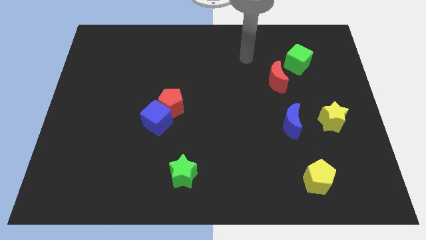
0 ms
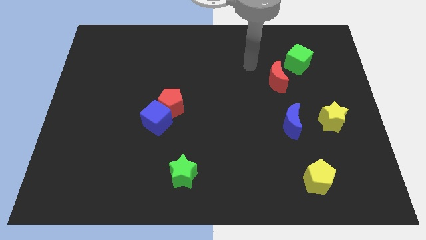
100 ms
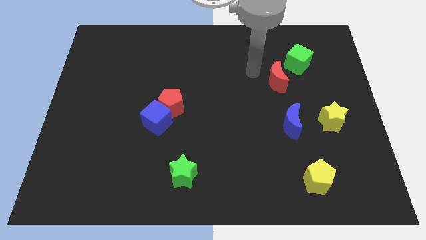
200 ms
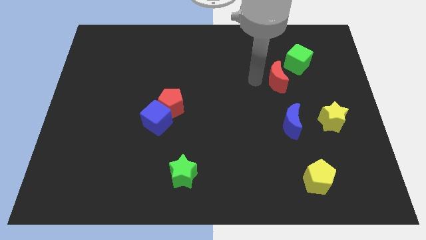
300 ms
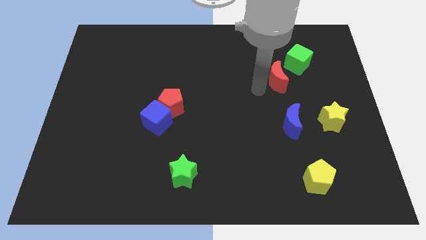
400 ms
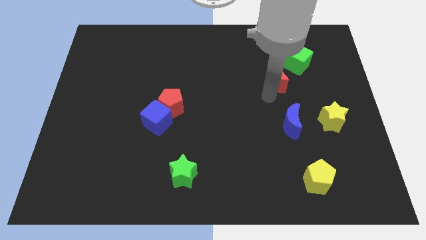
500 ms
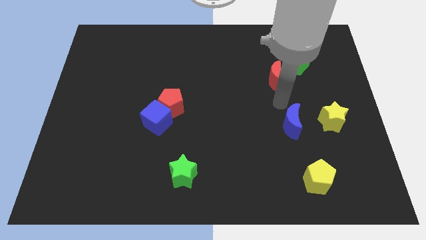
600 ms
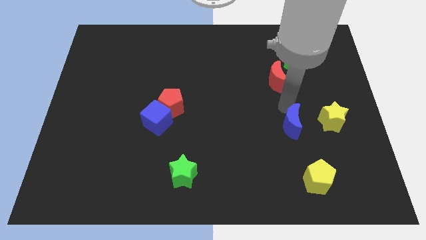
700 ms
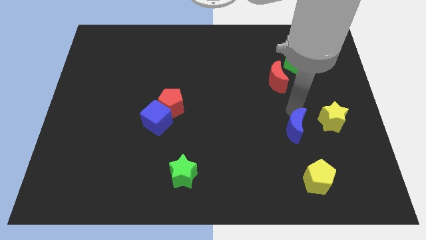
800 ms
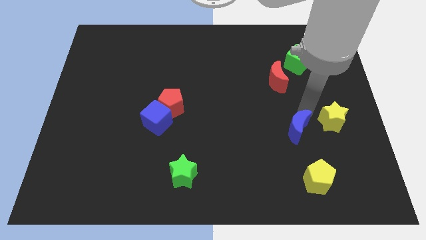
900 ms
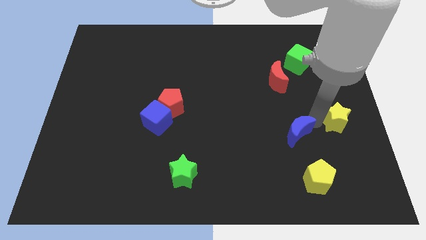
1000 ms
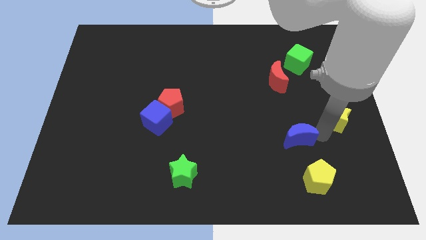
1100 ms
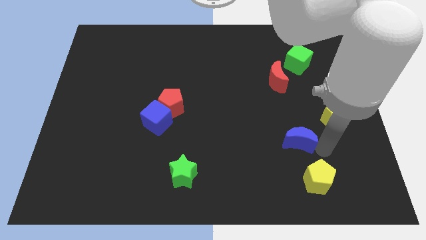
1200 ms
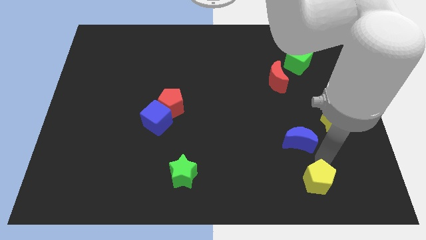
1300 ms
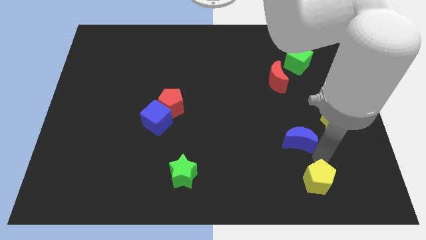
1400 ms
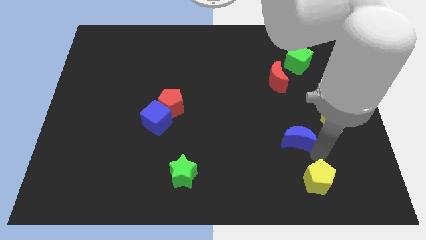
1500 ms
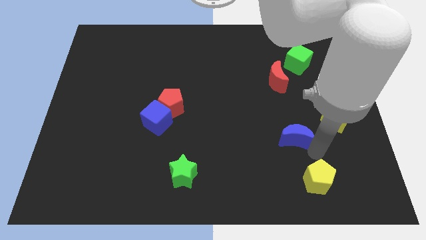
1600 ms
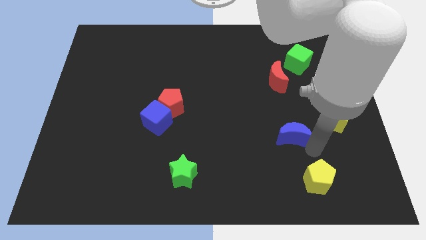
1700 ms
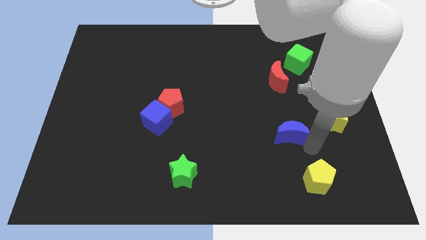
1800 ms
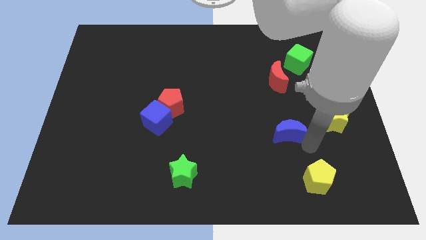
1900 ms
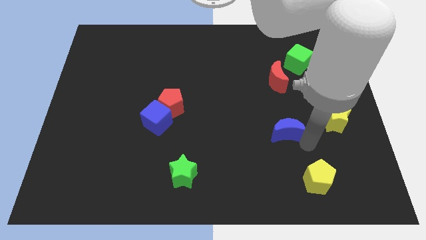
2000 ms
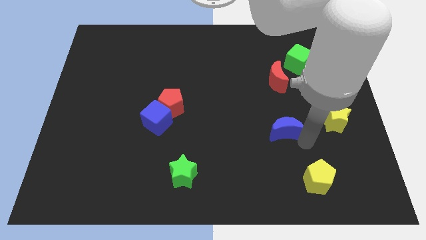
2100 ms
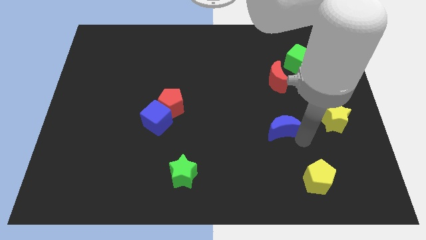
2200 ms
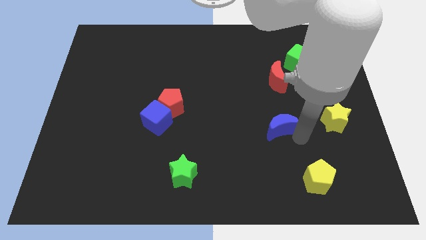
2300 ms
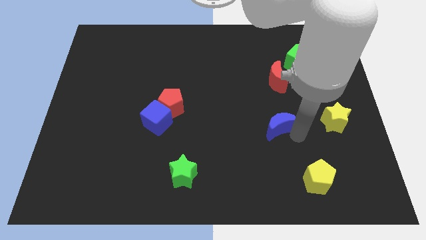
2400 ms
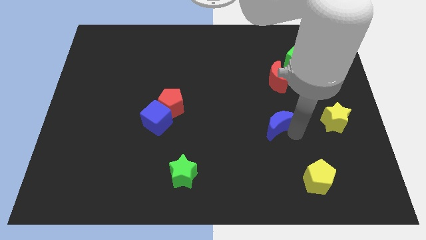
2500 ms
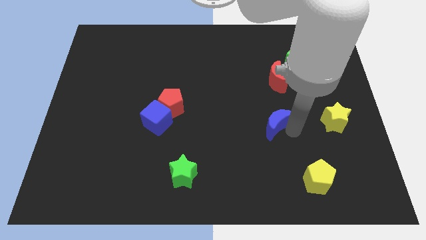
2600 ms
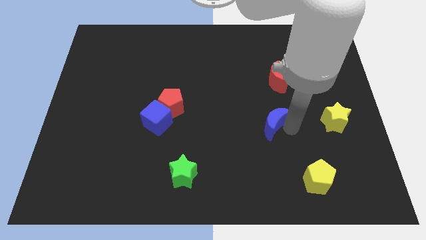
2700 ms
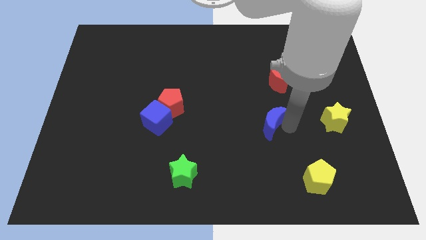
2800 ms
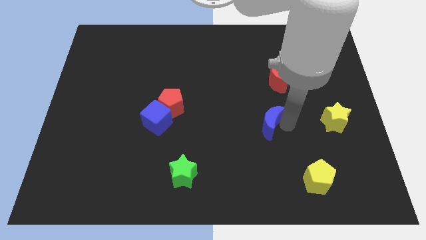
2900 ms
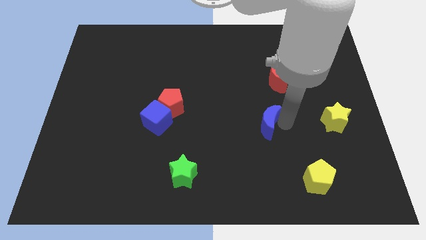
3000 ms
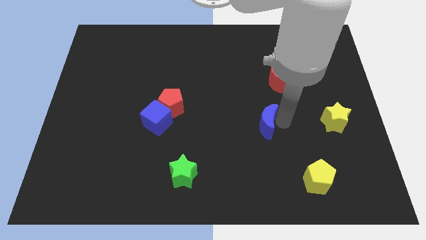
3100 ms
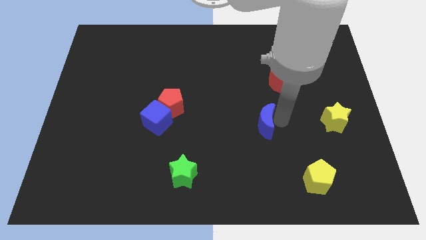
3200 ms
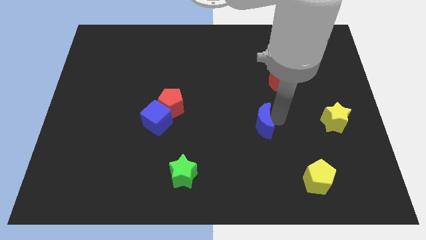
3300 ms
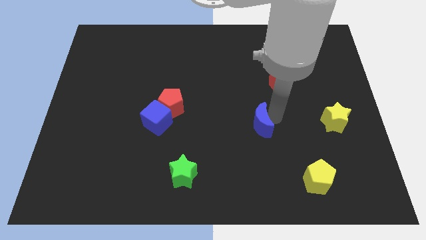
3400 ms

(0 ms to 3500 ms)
slide the blue moon somewhat left

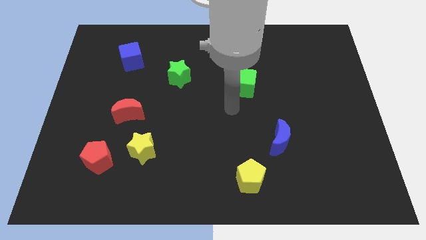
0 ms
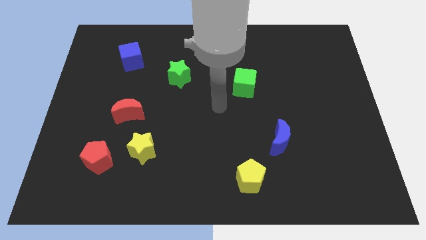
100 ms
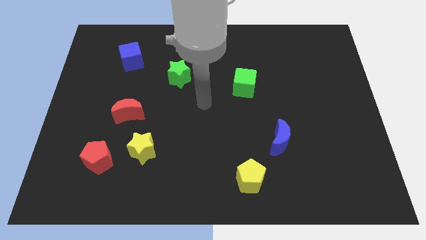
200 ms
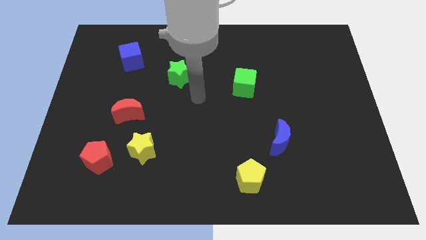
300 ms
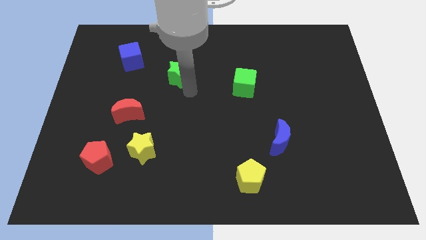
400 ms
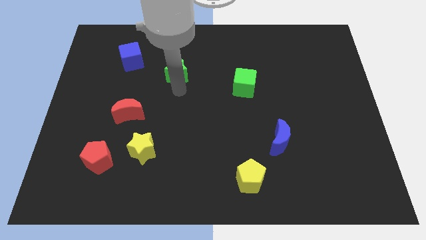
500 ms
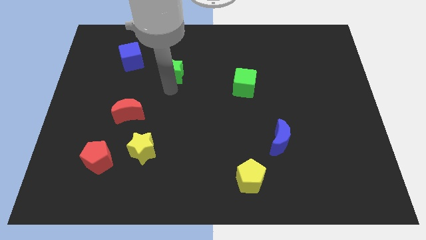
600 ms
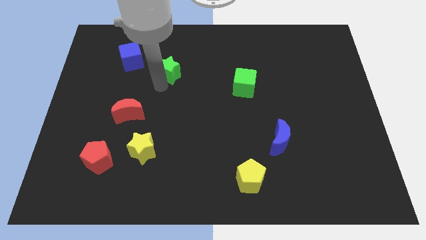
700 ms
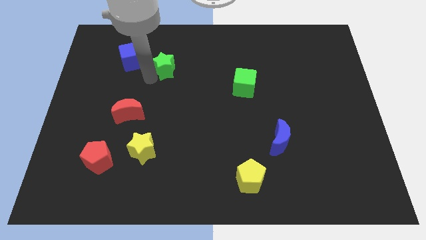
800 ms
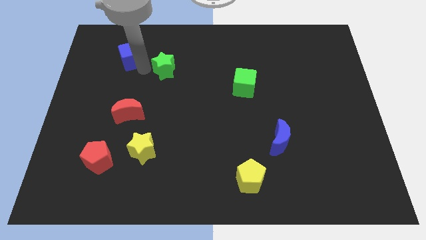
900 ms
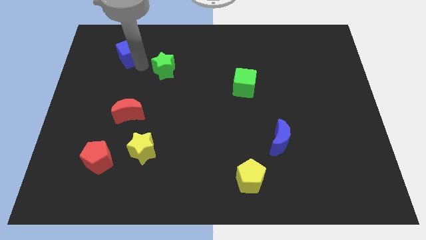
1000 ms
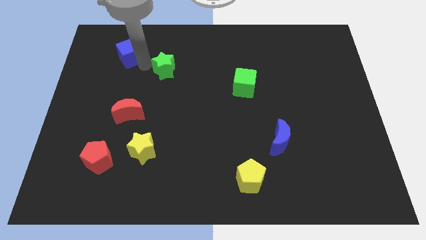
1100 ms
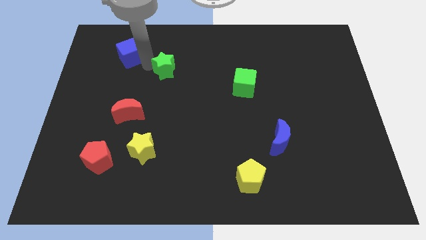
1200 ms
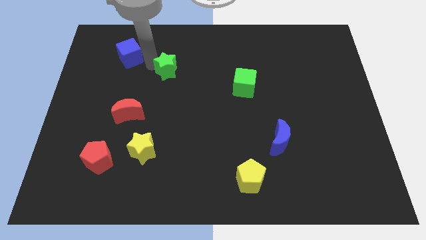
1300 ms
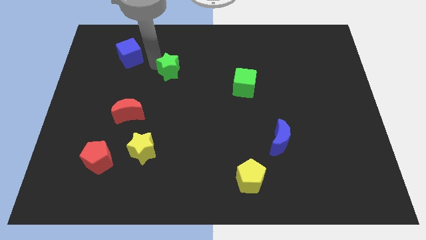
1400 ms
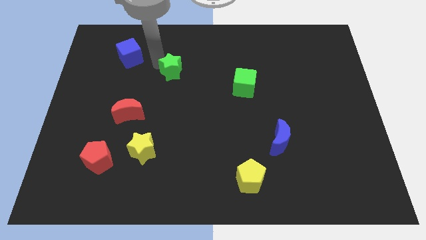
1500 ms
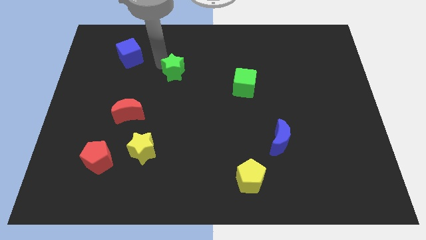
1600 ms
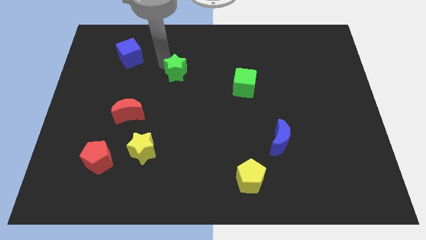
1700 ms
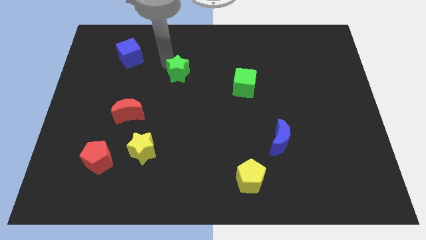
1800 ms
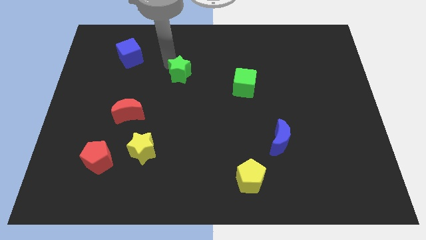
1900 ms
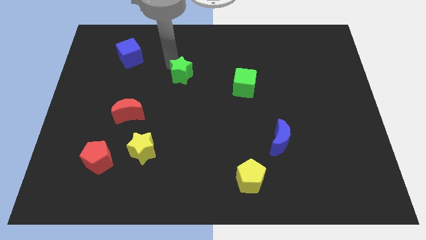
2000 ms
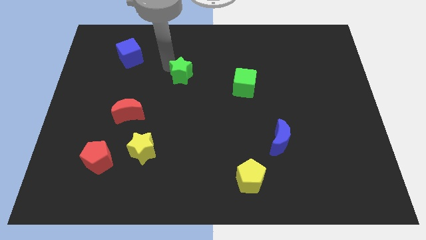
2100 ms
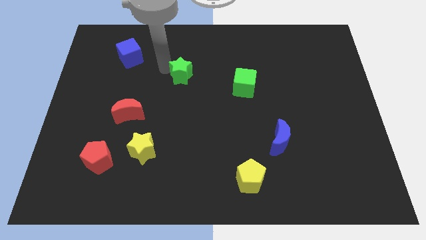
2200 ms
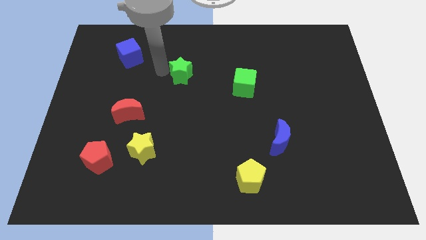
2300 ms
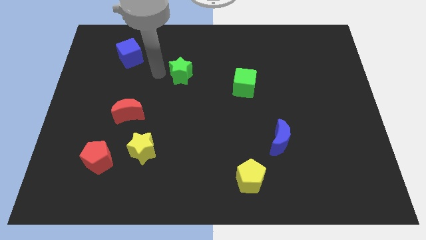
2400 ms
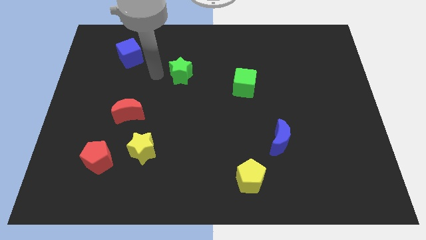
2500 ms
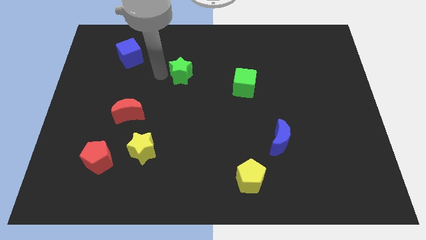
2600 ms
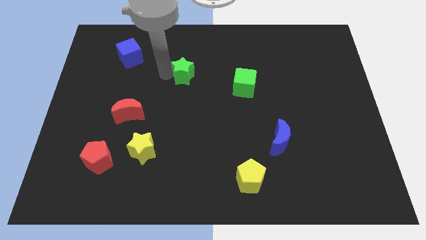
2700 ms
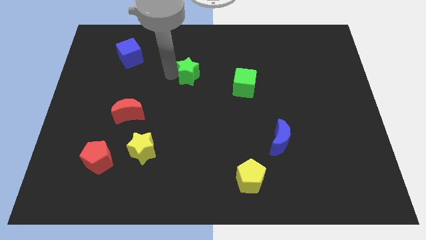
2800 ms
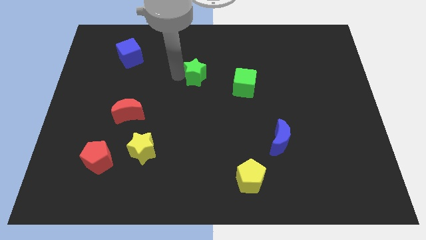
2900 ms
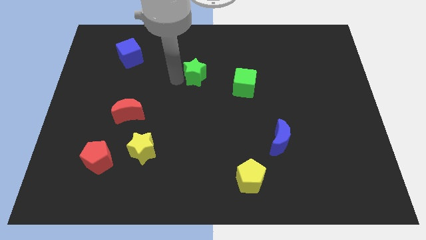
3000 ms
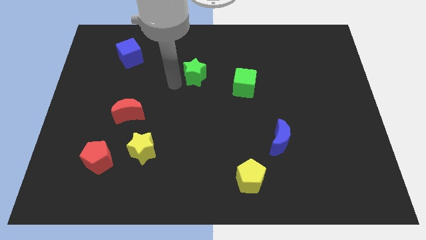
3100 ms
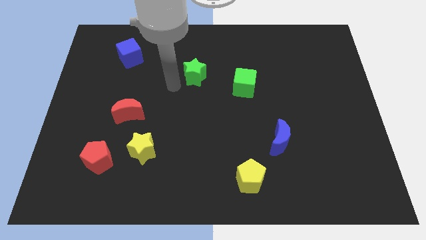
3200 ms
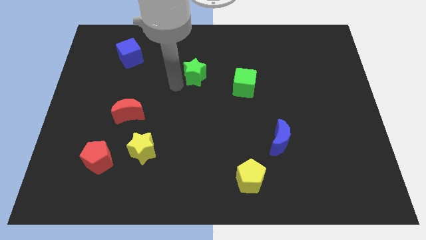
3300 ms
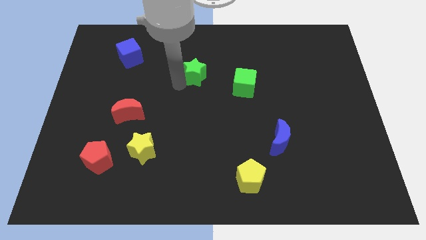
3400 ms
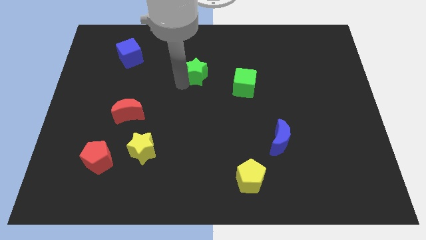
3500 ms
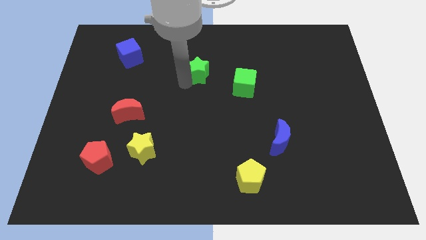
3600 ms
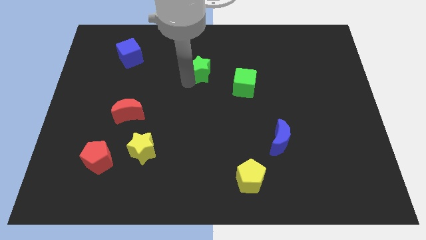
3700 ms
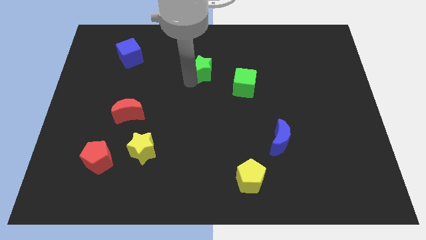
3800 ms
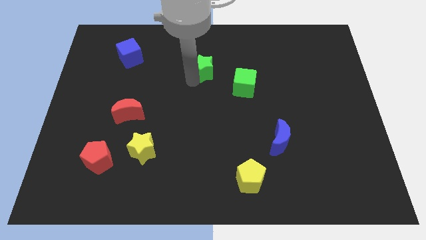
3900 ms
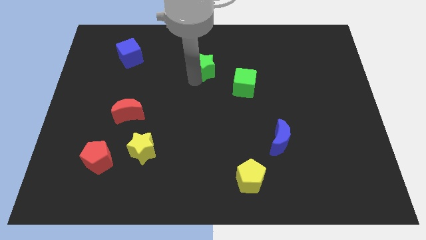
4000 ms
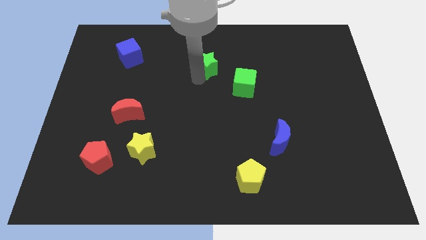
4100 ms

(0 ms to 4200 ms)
slide the green star slightly to the right
